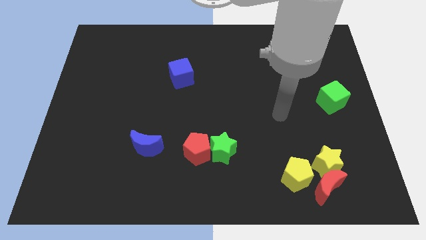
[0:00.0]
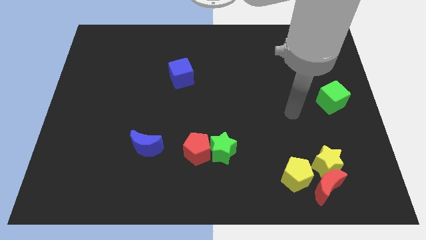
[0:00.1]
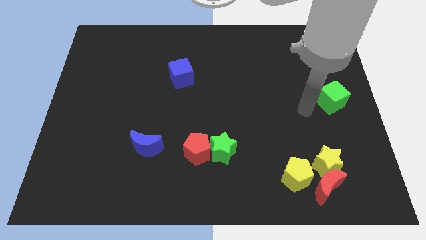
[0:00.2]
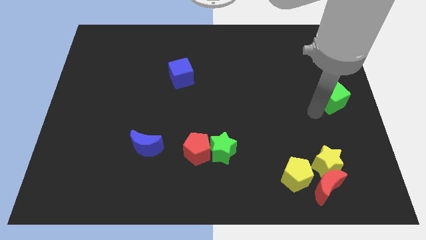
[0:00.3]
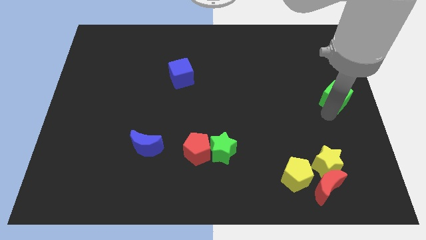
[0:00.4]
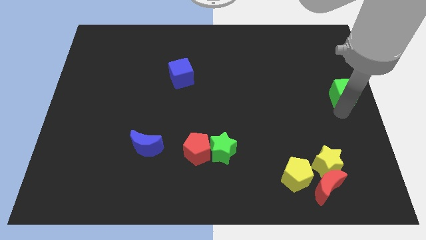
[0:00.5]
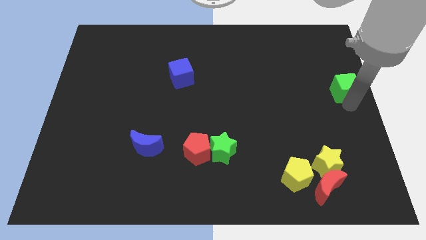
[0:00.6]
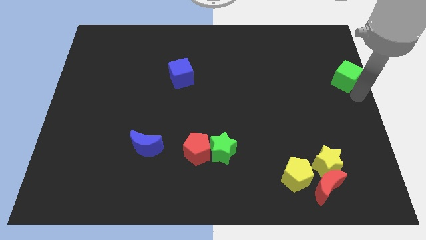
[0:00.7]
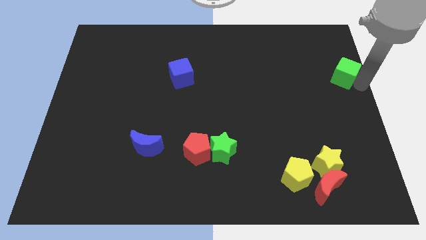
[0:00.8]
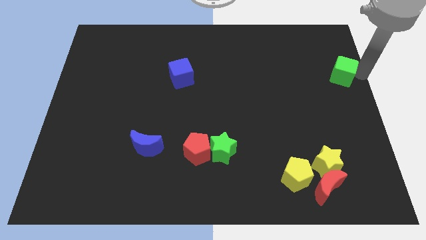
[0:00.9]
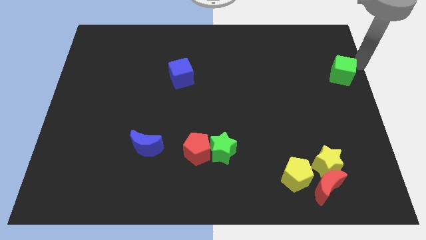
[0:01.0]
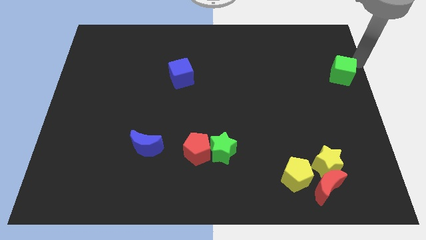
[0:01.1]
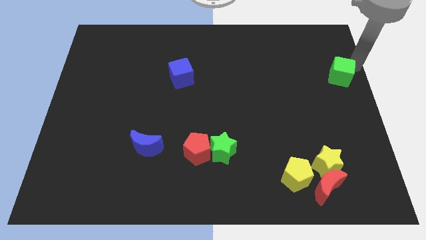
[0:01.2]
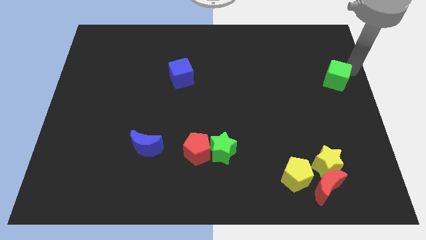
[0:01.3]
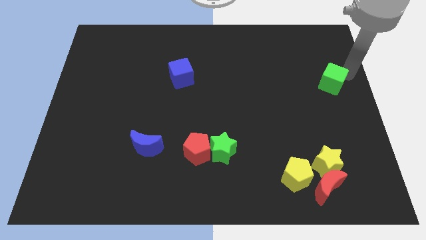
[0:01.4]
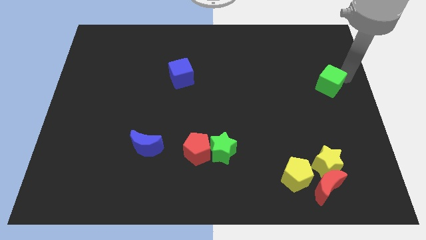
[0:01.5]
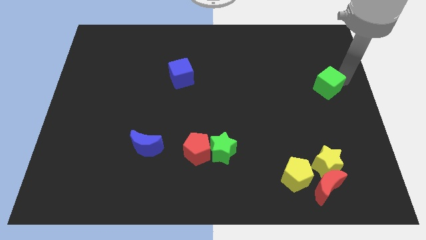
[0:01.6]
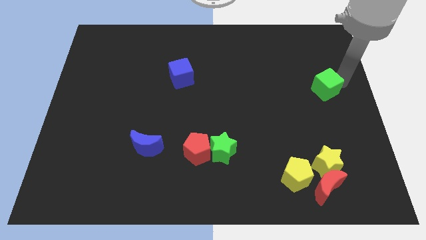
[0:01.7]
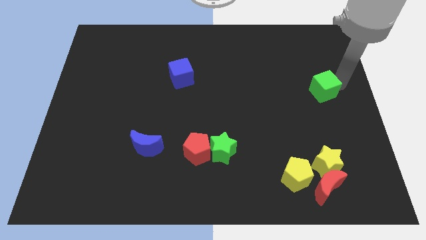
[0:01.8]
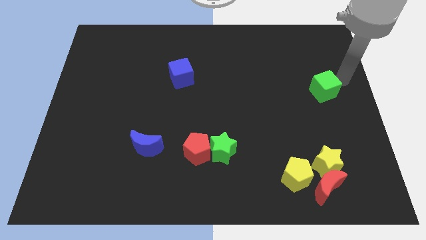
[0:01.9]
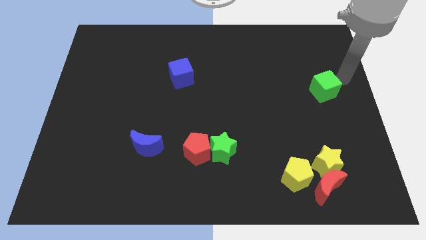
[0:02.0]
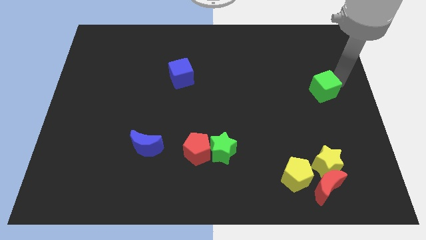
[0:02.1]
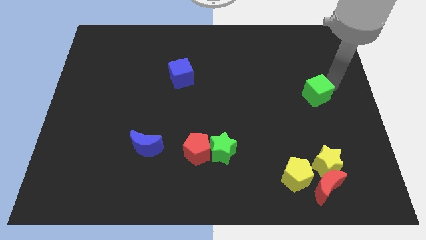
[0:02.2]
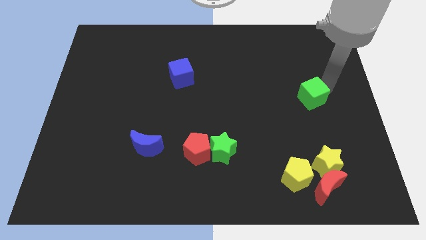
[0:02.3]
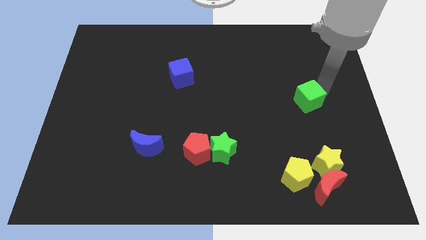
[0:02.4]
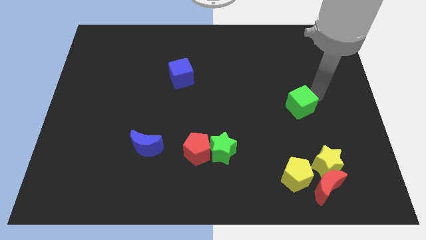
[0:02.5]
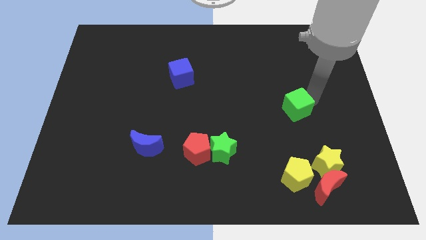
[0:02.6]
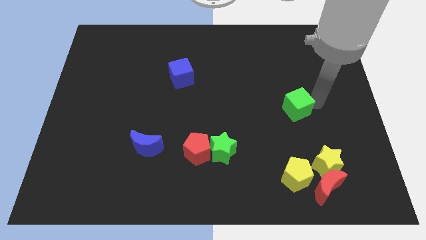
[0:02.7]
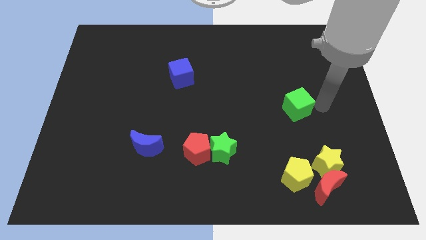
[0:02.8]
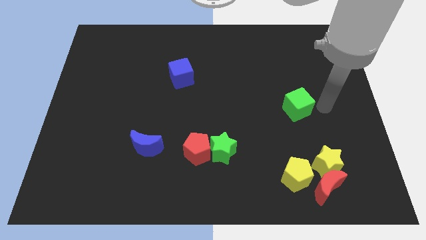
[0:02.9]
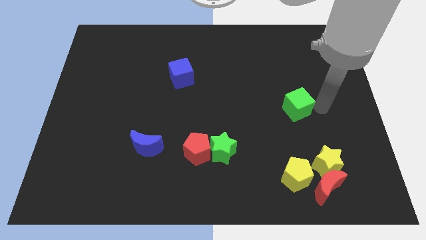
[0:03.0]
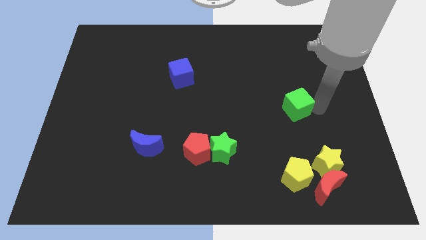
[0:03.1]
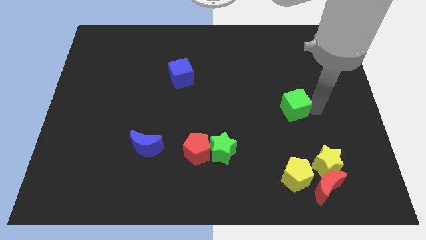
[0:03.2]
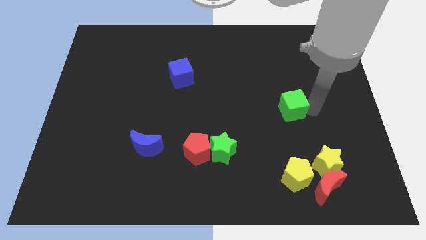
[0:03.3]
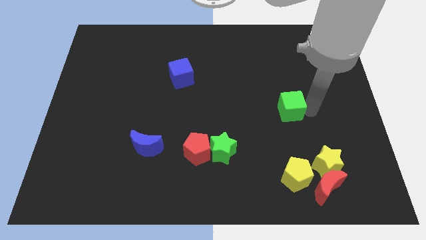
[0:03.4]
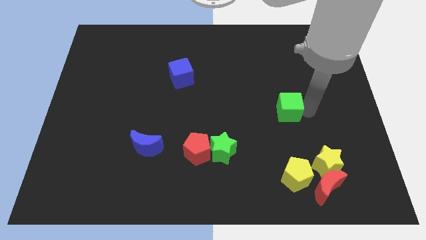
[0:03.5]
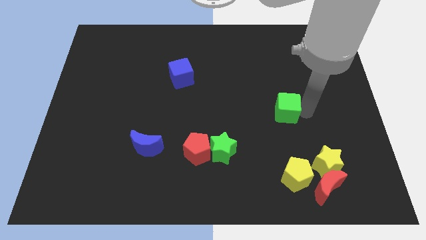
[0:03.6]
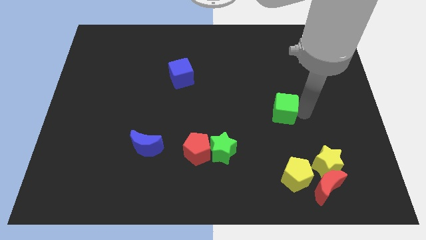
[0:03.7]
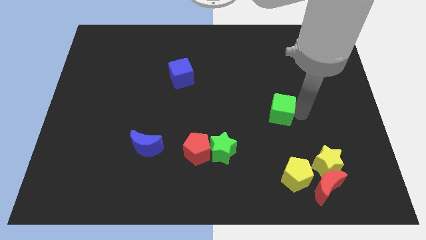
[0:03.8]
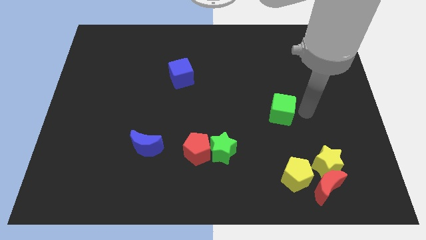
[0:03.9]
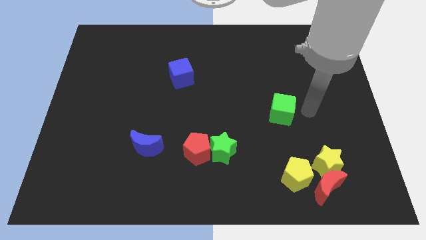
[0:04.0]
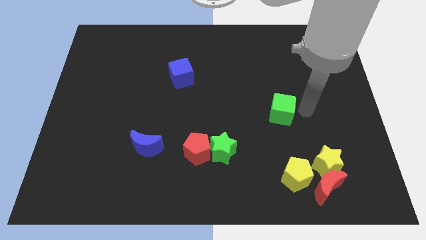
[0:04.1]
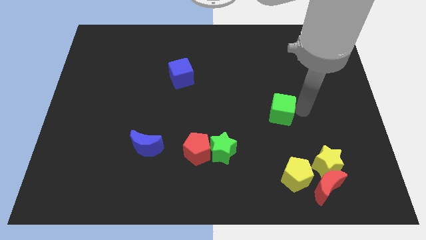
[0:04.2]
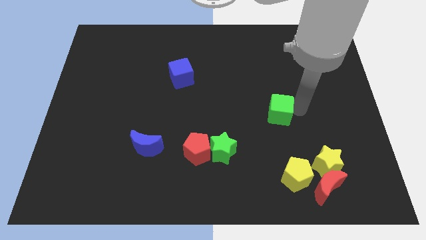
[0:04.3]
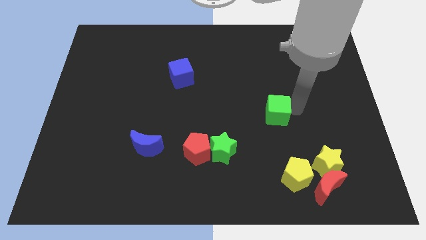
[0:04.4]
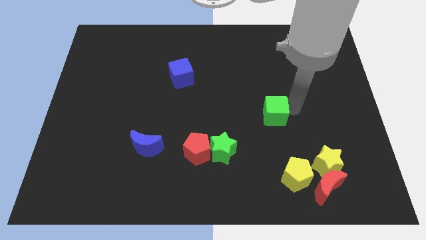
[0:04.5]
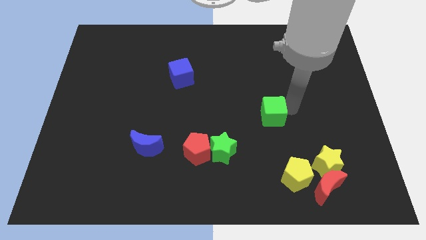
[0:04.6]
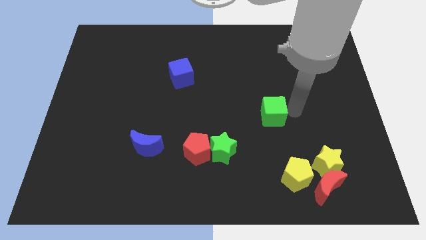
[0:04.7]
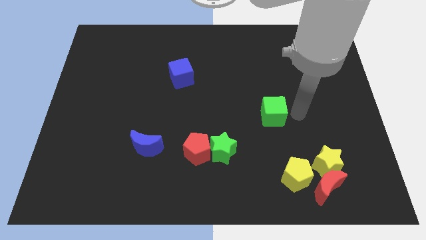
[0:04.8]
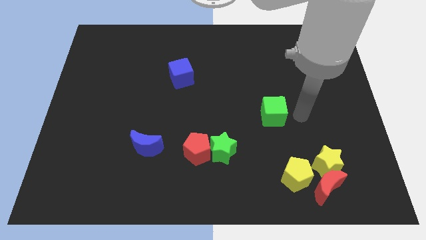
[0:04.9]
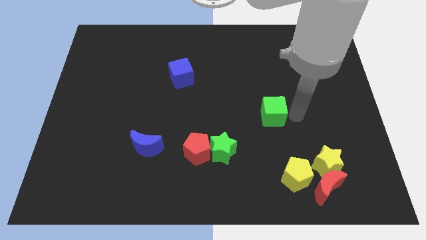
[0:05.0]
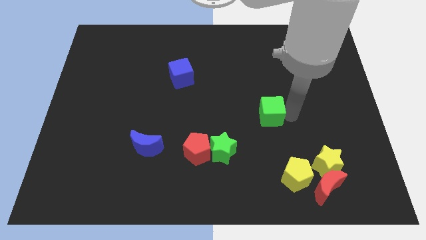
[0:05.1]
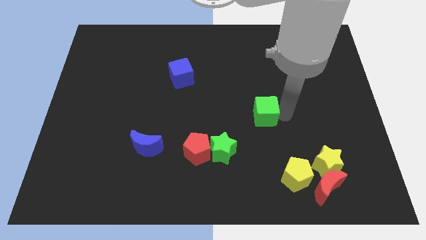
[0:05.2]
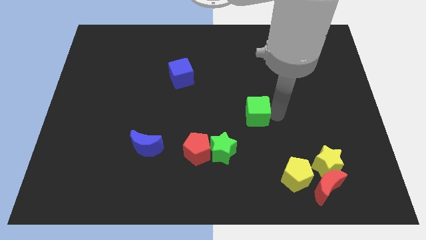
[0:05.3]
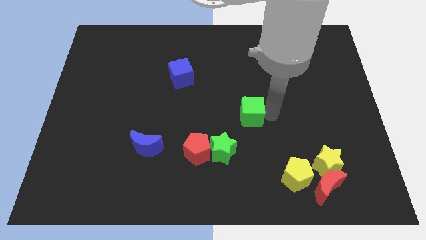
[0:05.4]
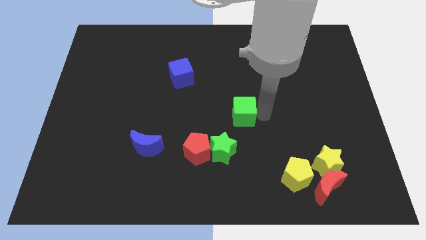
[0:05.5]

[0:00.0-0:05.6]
put the green cube to the top side of the green star

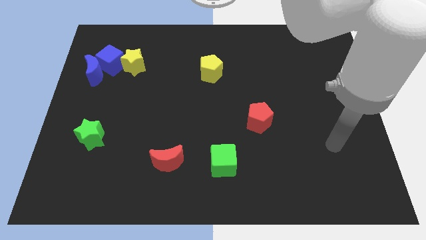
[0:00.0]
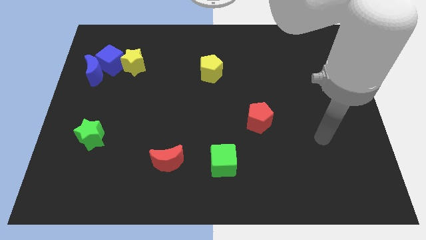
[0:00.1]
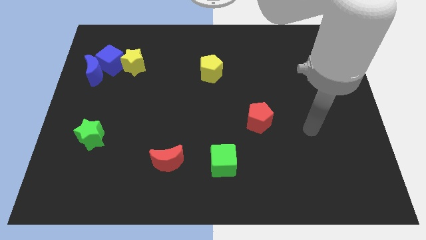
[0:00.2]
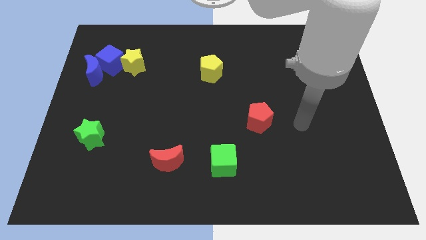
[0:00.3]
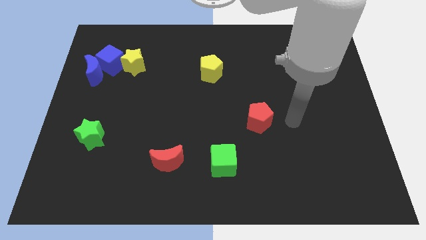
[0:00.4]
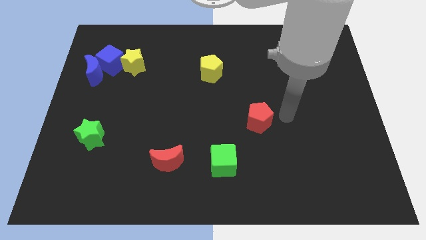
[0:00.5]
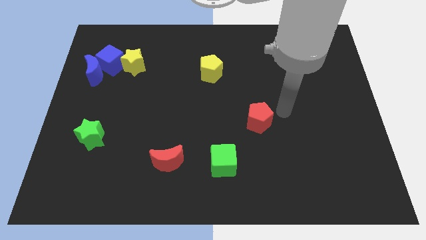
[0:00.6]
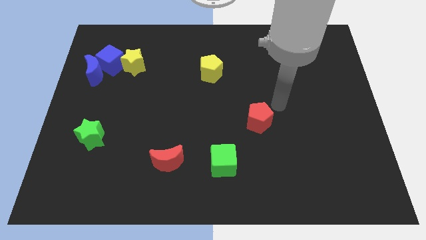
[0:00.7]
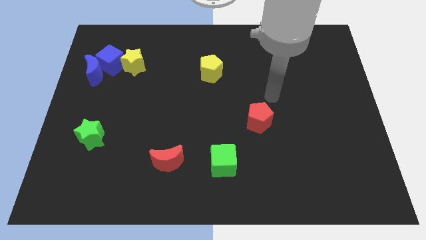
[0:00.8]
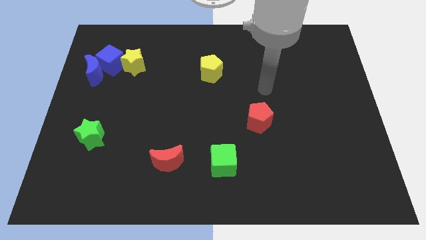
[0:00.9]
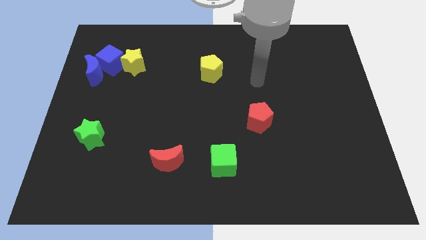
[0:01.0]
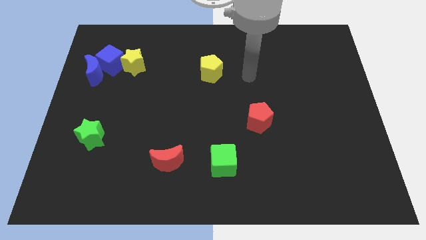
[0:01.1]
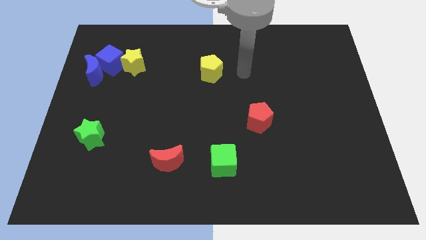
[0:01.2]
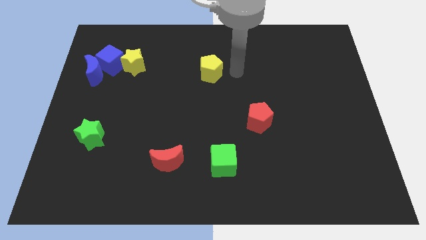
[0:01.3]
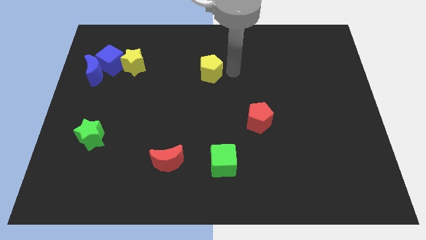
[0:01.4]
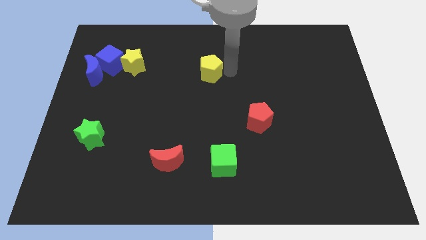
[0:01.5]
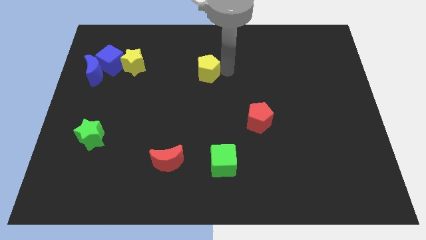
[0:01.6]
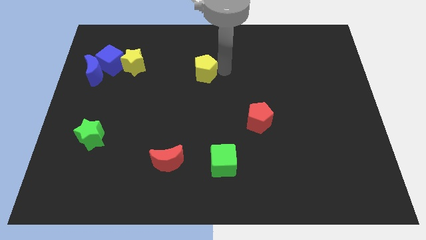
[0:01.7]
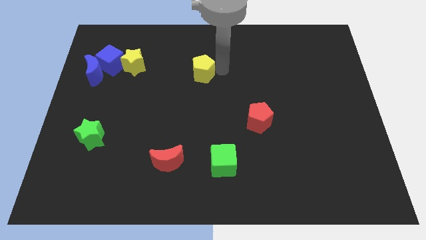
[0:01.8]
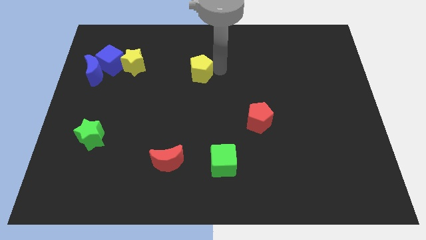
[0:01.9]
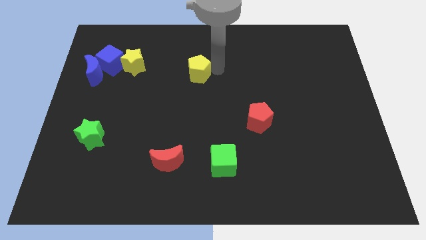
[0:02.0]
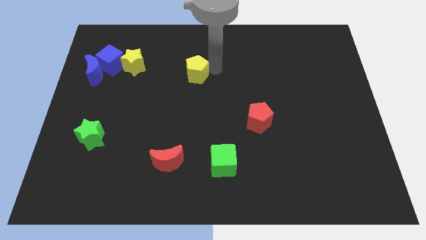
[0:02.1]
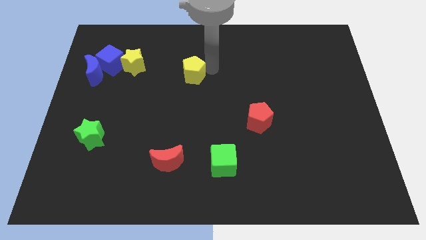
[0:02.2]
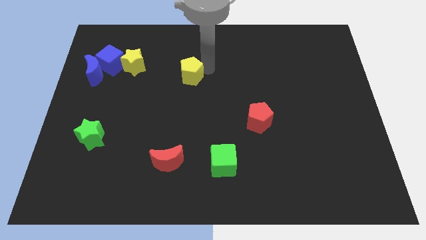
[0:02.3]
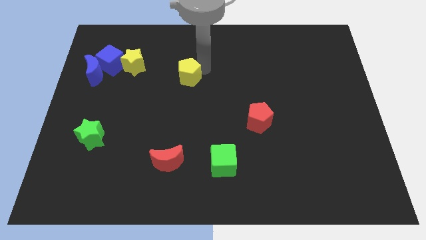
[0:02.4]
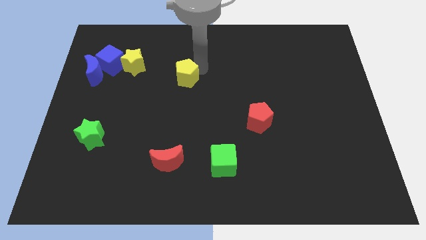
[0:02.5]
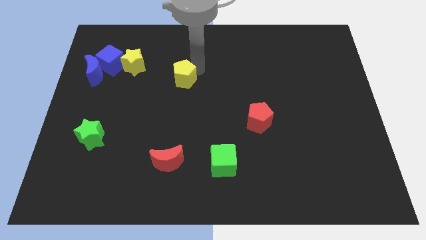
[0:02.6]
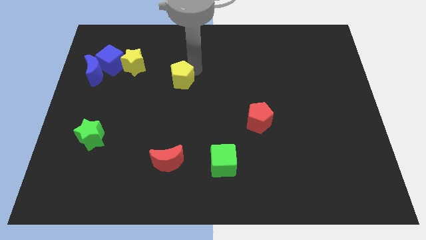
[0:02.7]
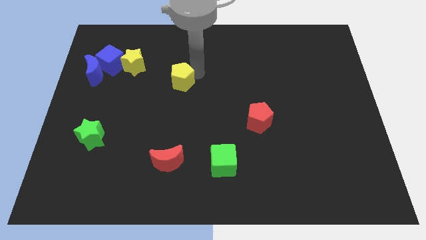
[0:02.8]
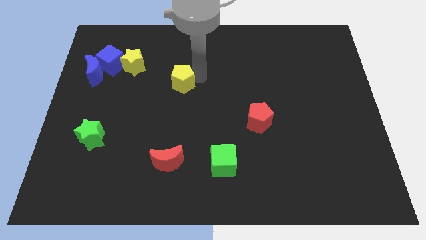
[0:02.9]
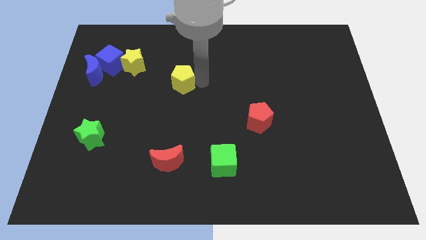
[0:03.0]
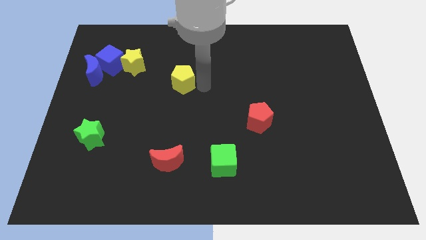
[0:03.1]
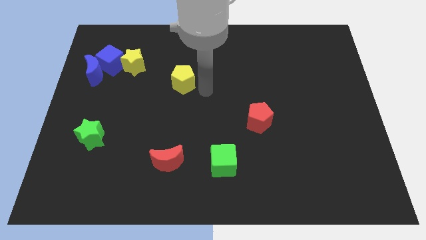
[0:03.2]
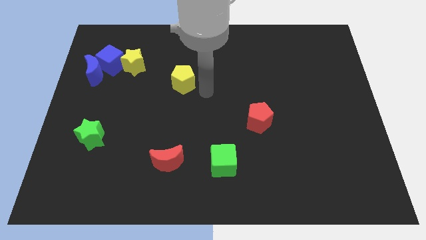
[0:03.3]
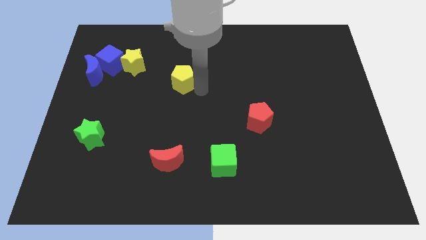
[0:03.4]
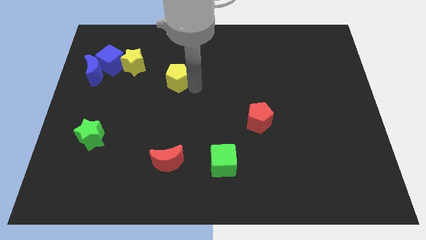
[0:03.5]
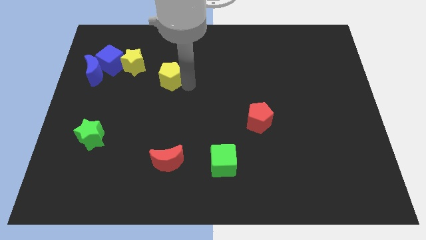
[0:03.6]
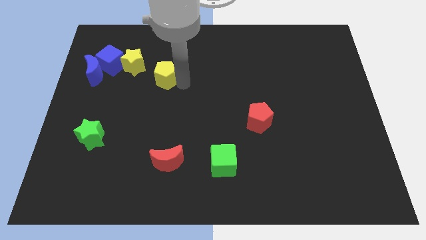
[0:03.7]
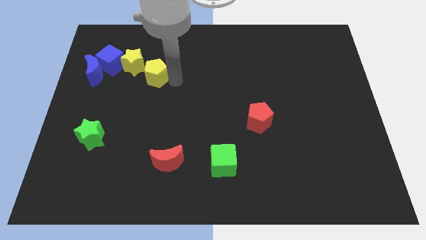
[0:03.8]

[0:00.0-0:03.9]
slide the yellow pentagon right of the blue moon
